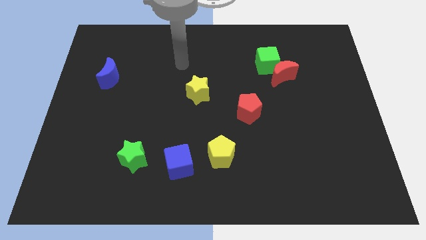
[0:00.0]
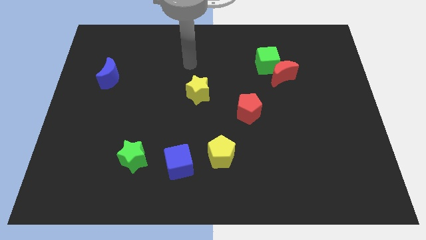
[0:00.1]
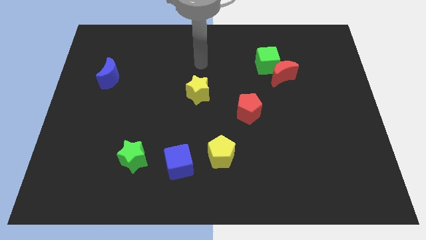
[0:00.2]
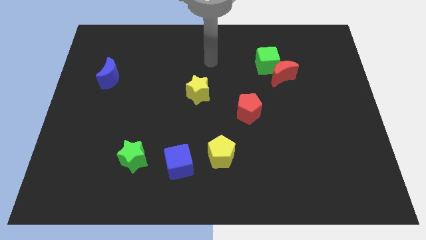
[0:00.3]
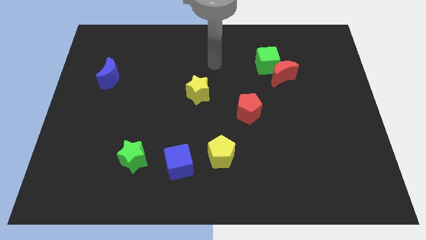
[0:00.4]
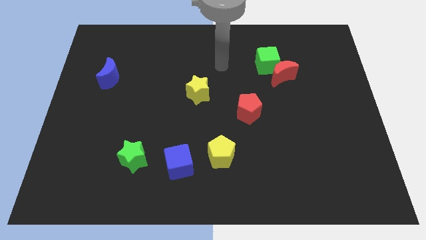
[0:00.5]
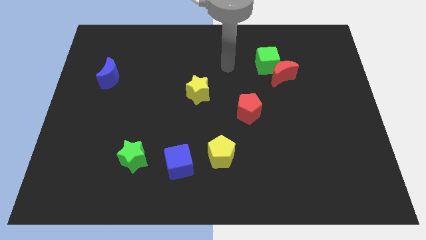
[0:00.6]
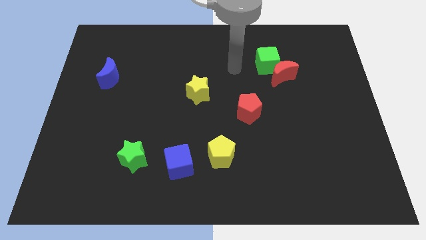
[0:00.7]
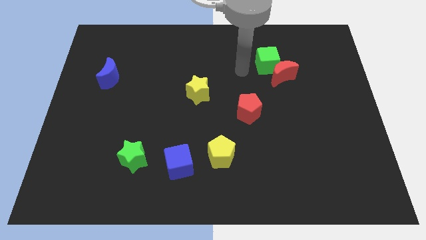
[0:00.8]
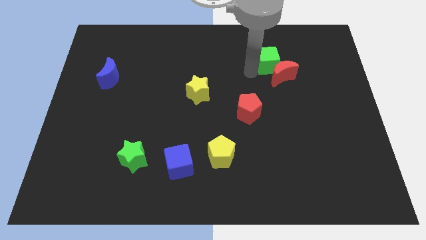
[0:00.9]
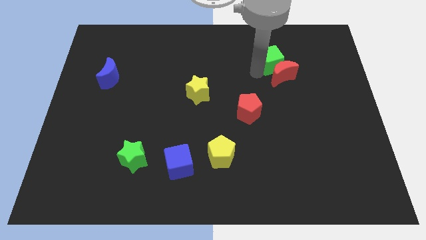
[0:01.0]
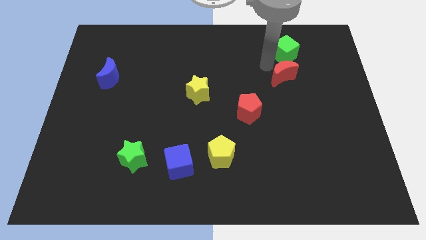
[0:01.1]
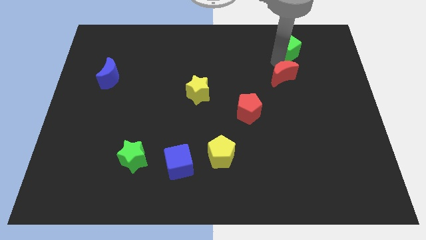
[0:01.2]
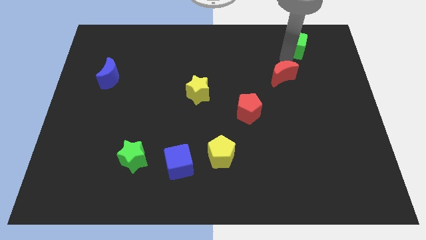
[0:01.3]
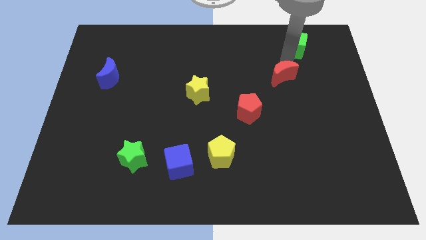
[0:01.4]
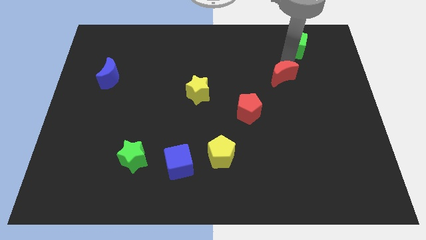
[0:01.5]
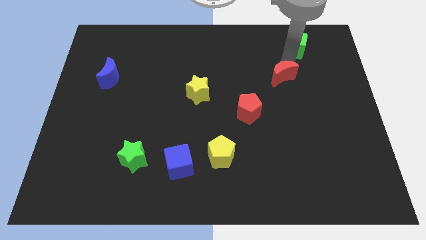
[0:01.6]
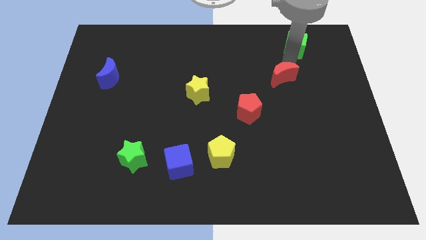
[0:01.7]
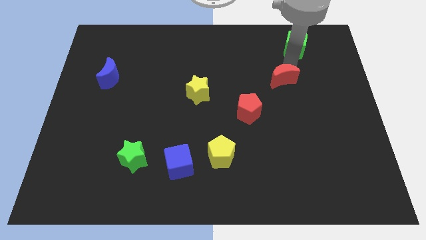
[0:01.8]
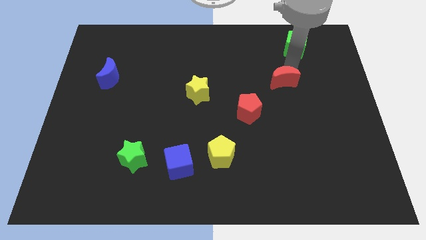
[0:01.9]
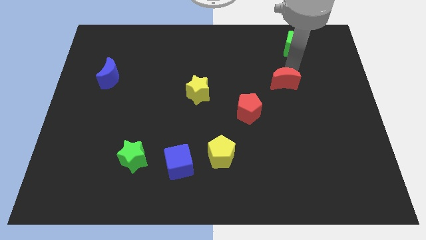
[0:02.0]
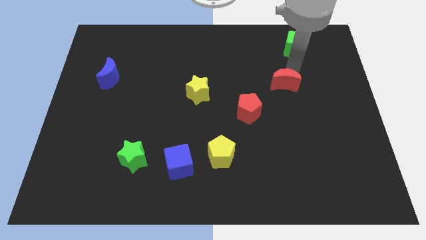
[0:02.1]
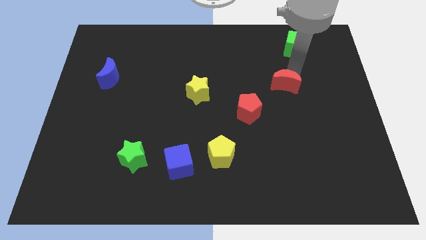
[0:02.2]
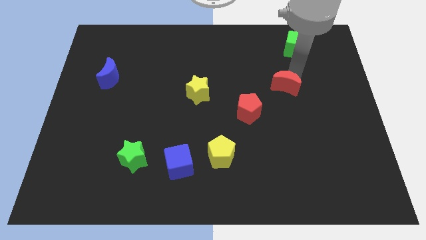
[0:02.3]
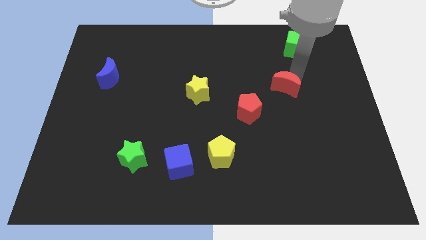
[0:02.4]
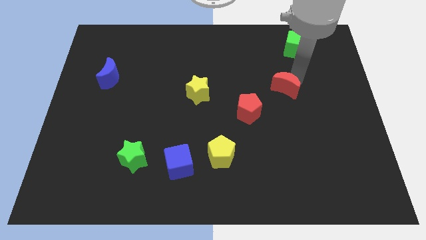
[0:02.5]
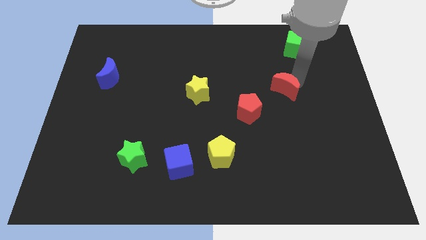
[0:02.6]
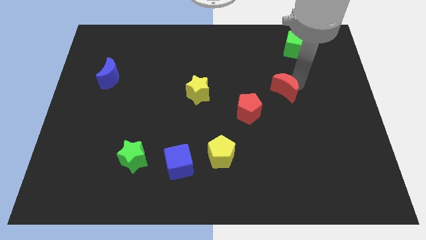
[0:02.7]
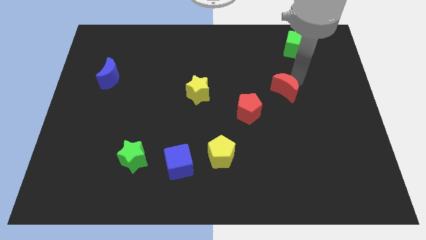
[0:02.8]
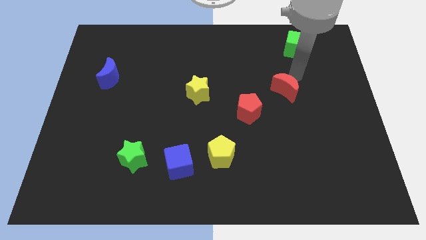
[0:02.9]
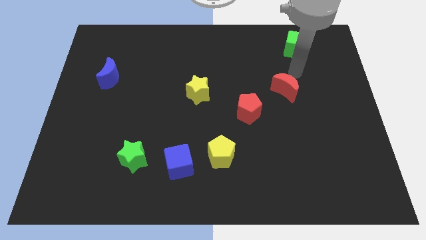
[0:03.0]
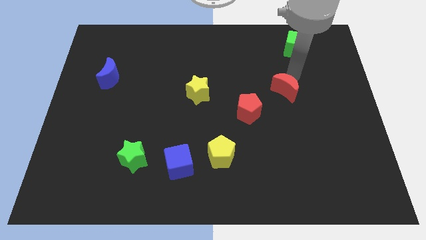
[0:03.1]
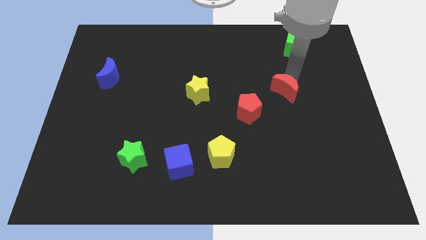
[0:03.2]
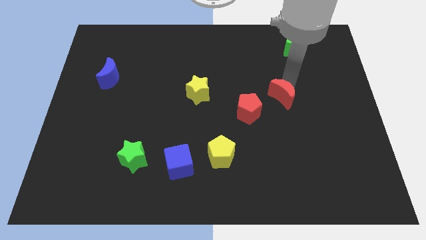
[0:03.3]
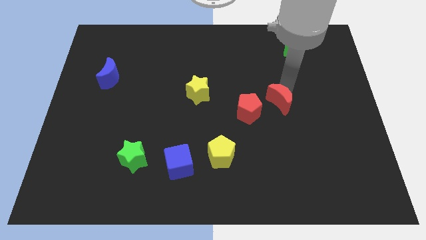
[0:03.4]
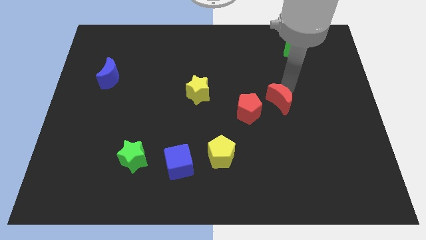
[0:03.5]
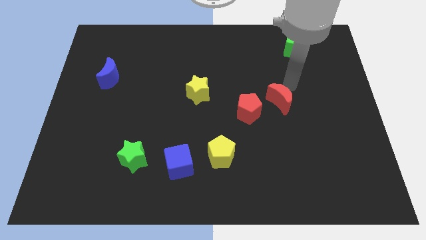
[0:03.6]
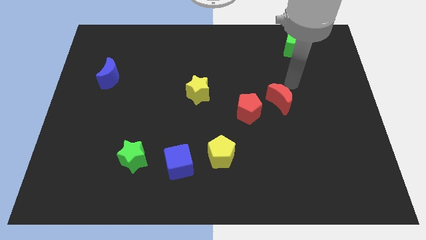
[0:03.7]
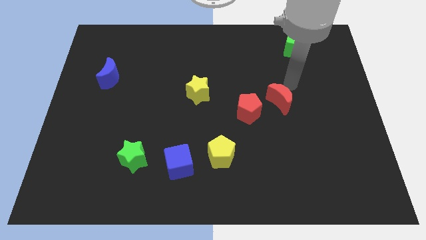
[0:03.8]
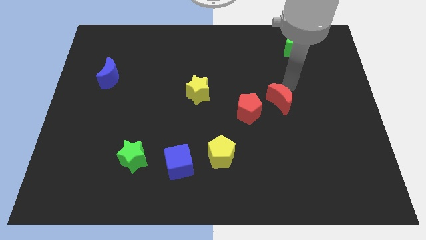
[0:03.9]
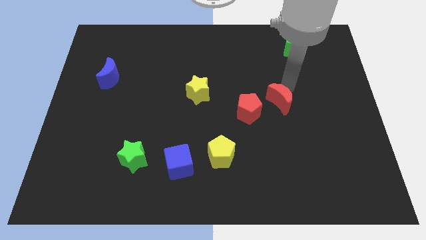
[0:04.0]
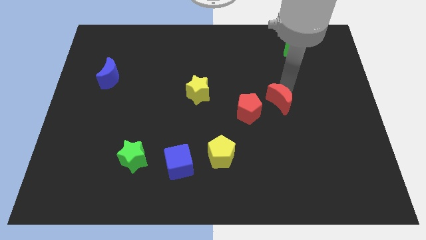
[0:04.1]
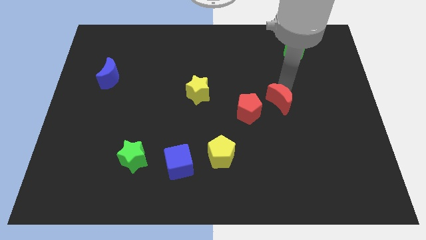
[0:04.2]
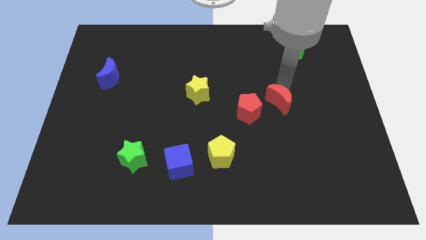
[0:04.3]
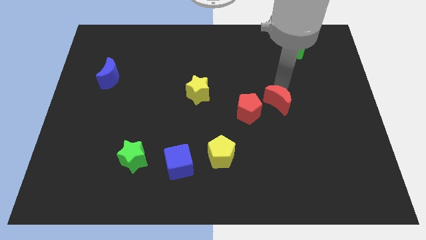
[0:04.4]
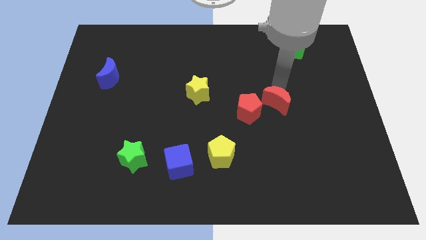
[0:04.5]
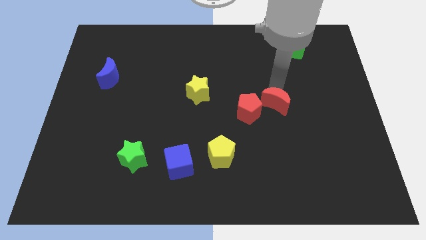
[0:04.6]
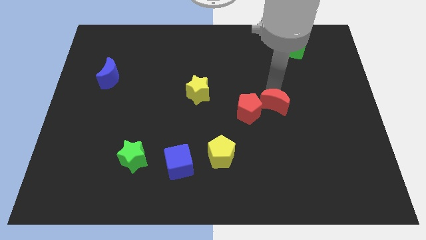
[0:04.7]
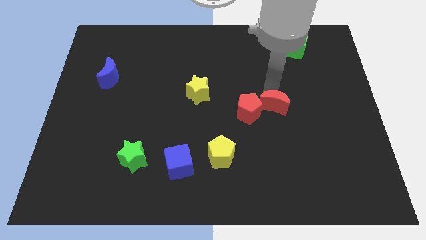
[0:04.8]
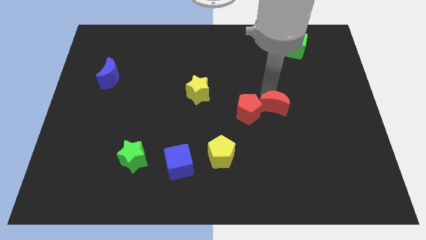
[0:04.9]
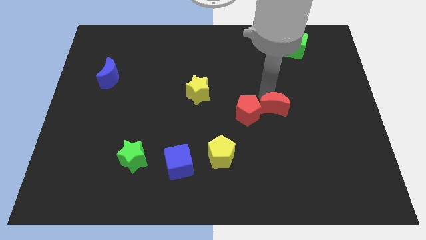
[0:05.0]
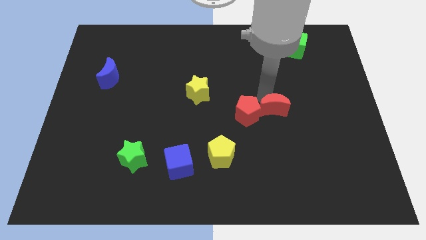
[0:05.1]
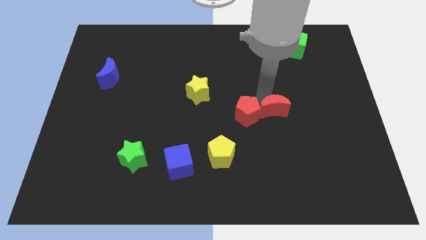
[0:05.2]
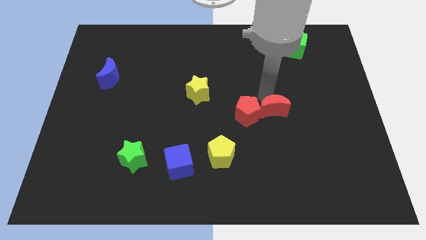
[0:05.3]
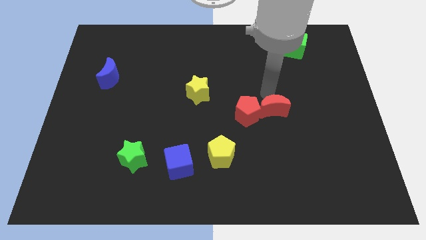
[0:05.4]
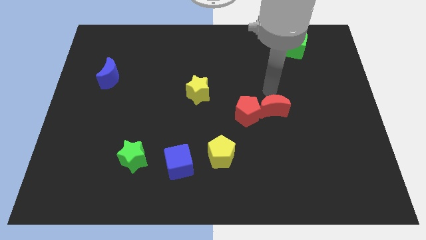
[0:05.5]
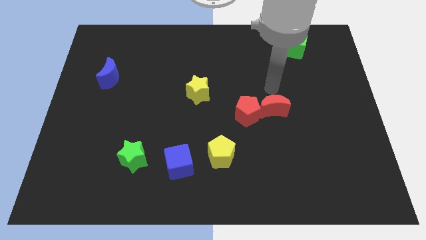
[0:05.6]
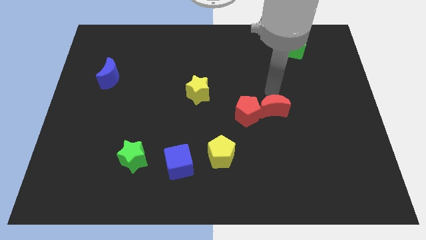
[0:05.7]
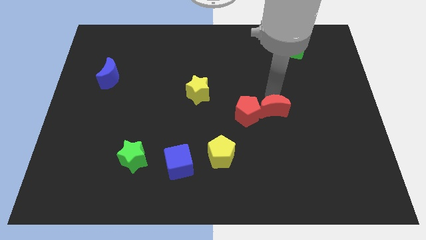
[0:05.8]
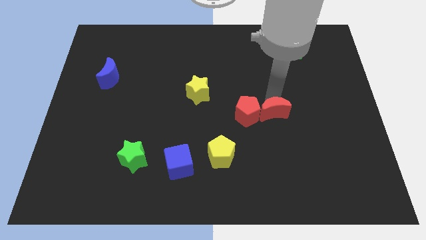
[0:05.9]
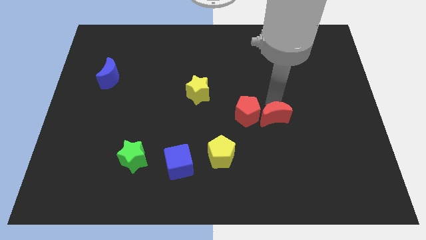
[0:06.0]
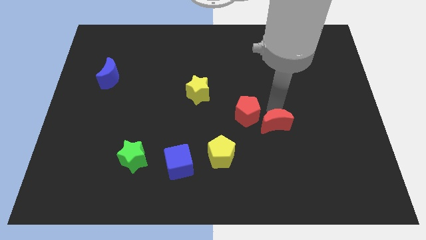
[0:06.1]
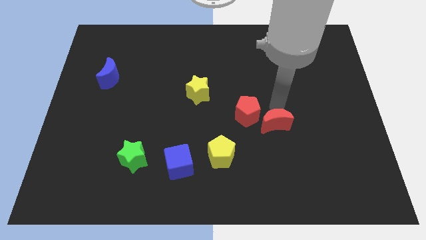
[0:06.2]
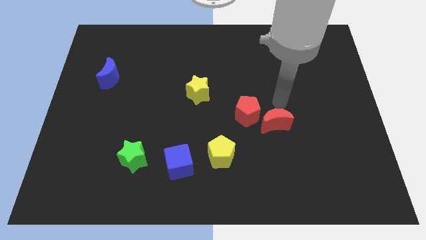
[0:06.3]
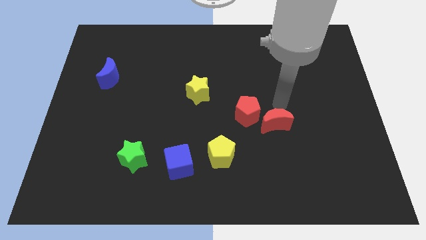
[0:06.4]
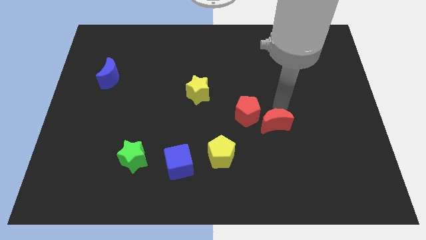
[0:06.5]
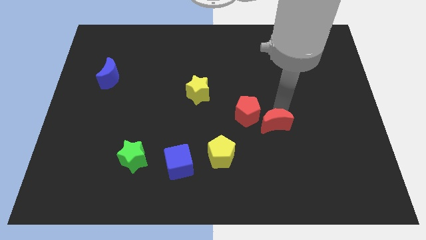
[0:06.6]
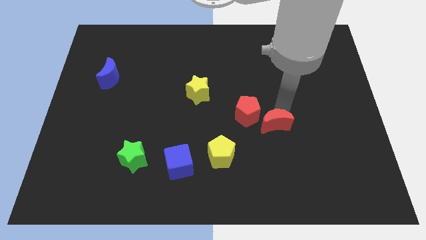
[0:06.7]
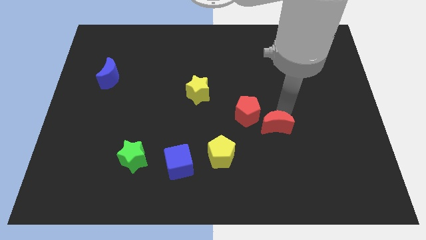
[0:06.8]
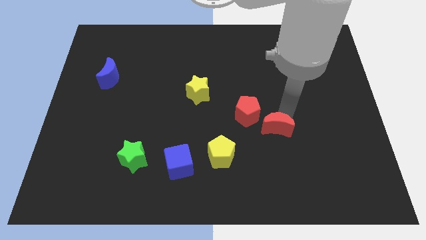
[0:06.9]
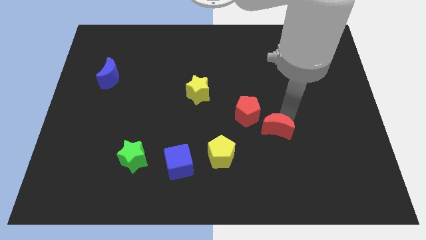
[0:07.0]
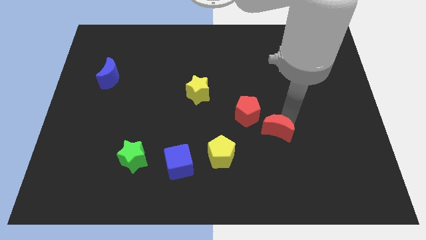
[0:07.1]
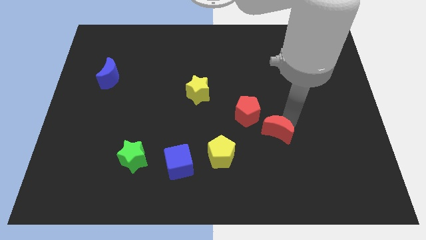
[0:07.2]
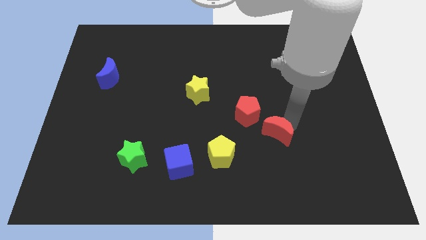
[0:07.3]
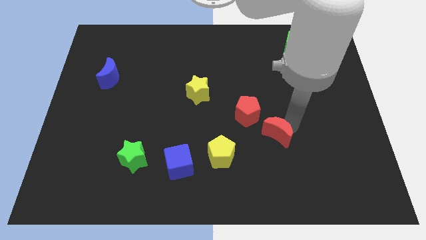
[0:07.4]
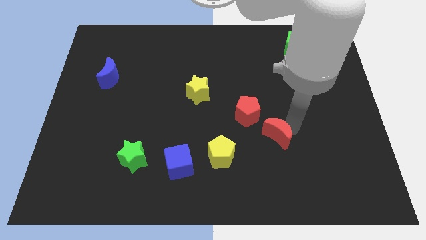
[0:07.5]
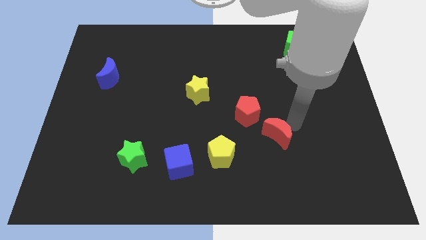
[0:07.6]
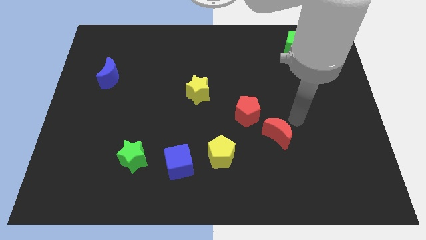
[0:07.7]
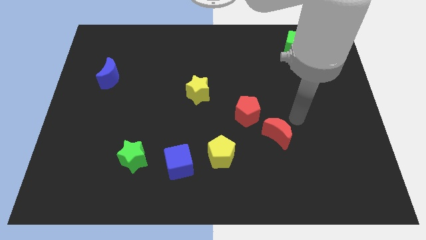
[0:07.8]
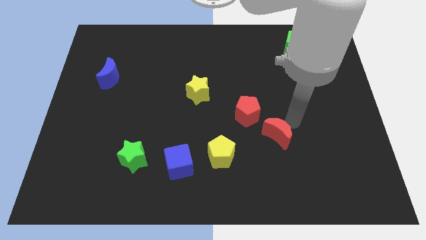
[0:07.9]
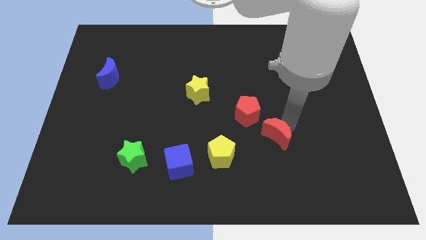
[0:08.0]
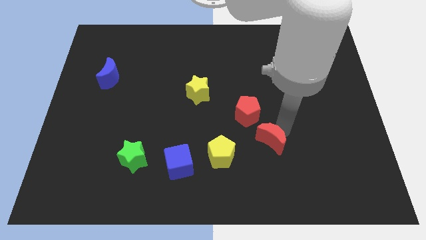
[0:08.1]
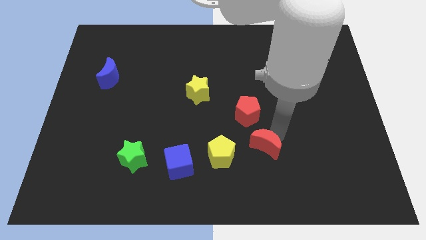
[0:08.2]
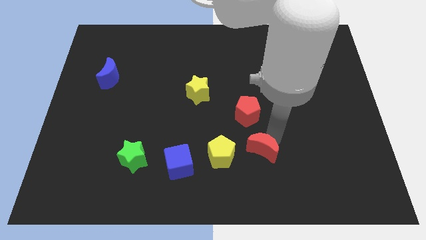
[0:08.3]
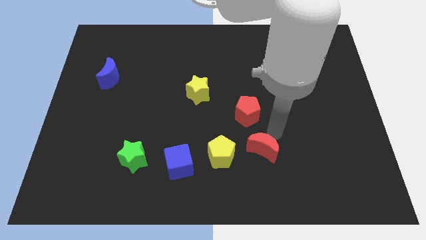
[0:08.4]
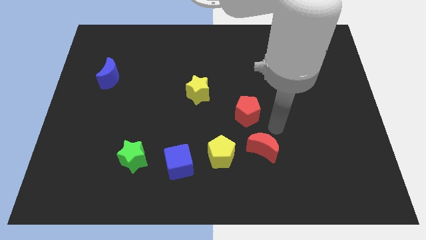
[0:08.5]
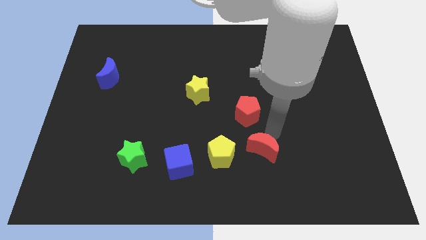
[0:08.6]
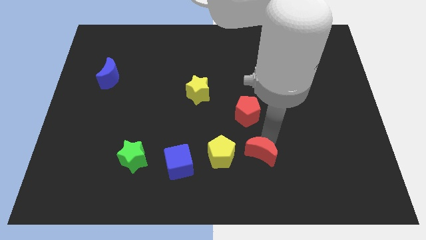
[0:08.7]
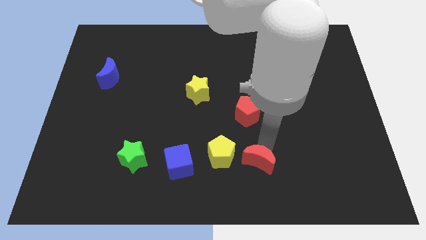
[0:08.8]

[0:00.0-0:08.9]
put the red moon to the bottom right side of the yellow pentagon
